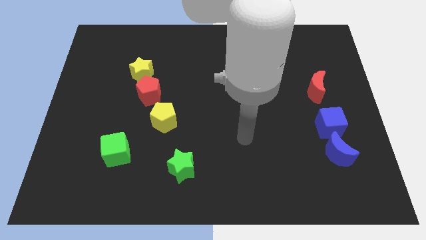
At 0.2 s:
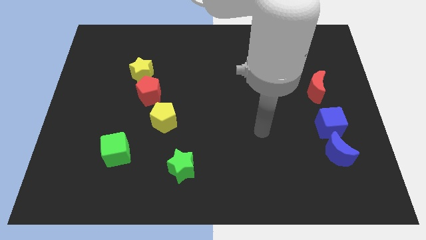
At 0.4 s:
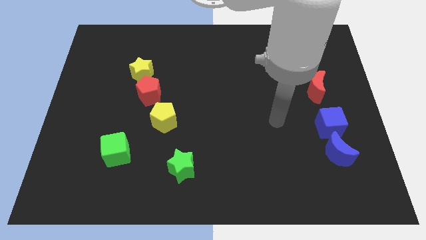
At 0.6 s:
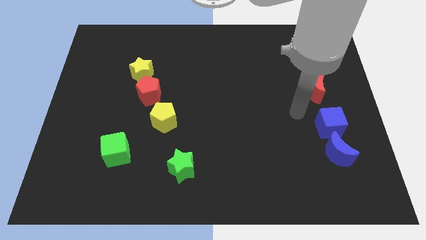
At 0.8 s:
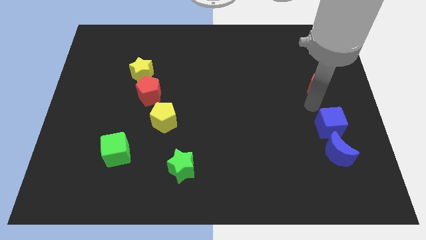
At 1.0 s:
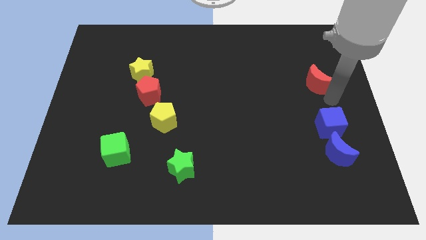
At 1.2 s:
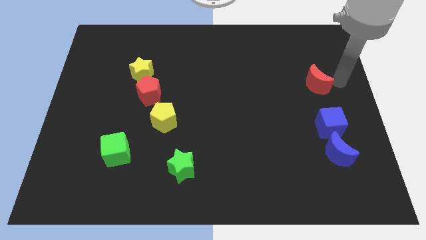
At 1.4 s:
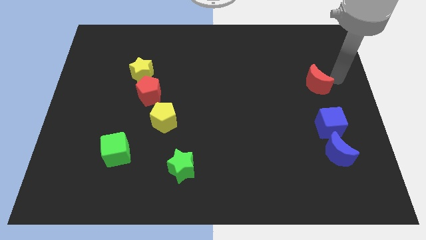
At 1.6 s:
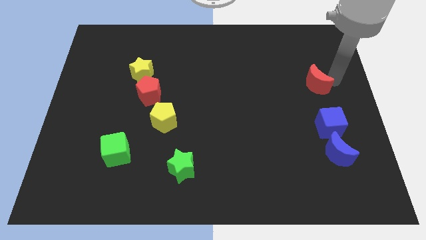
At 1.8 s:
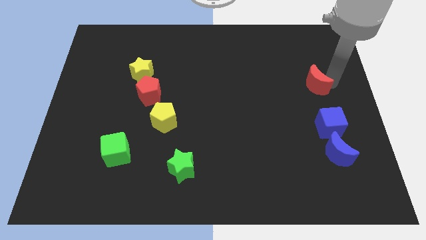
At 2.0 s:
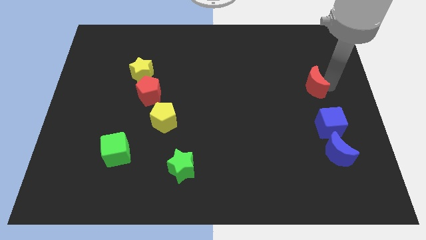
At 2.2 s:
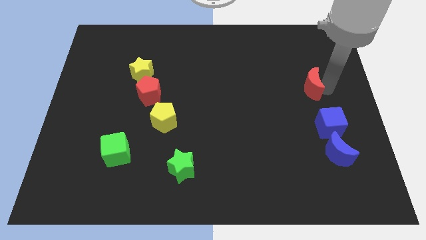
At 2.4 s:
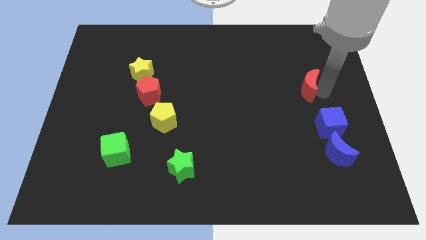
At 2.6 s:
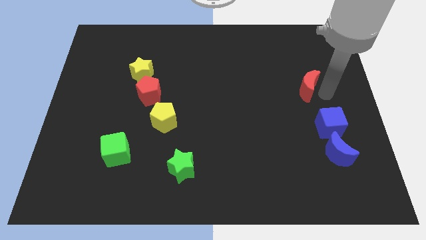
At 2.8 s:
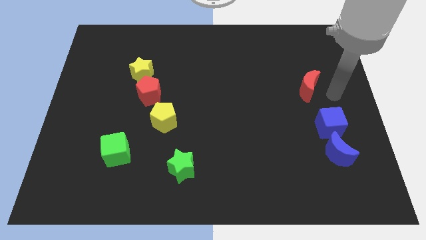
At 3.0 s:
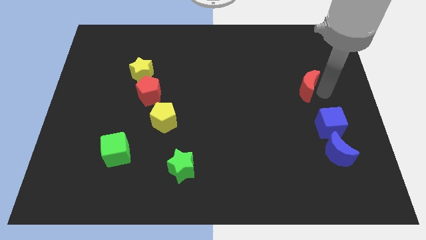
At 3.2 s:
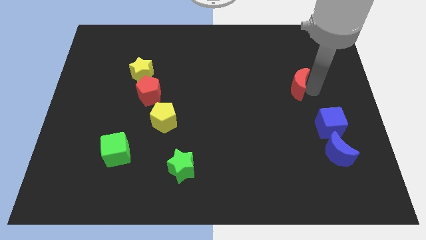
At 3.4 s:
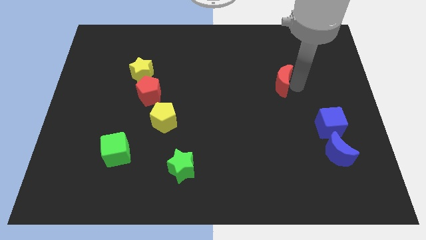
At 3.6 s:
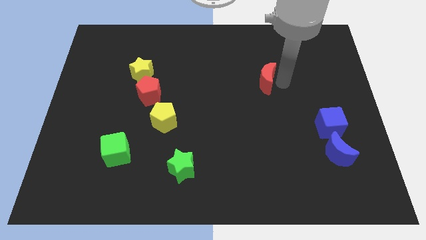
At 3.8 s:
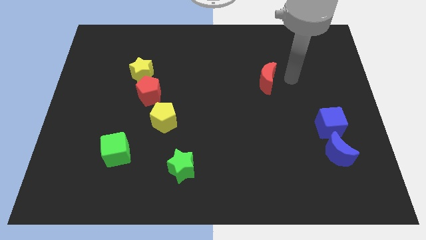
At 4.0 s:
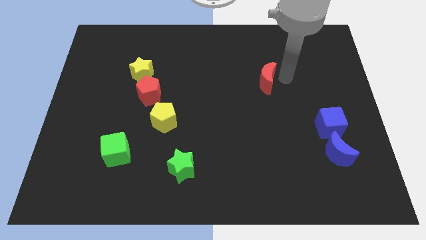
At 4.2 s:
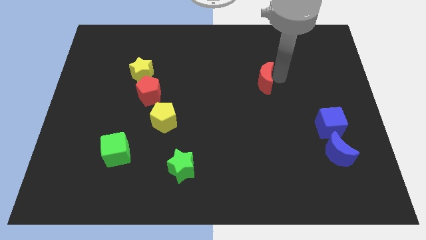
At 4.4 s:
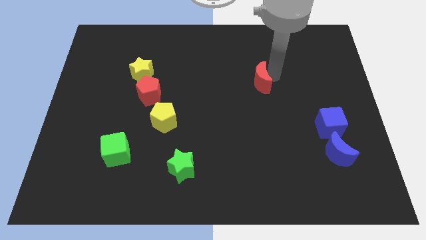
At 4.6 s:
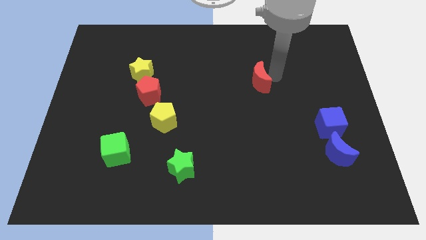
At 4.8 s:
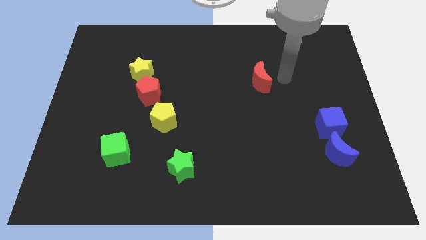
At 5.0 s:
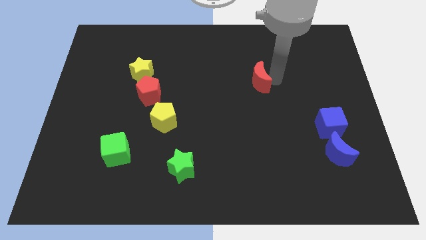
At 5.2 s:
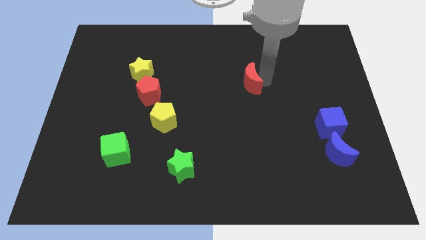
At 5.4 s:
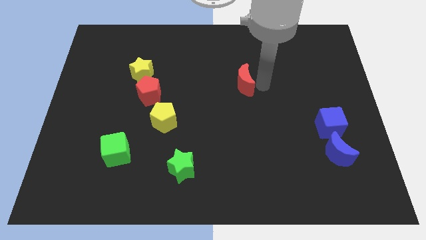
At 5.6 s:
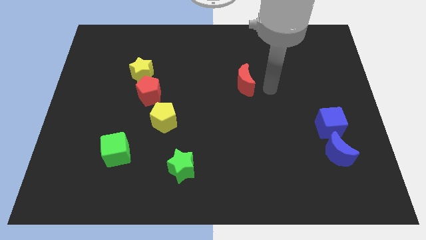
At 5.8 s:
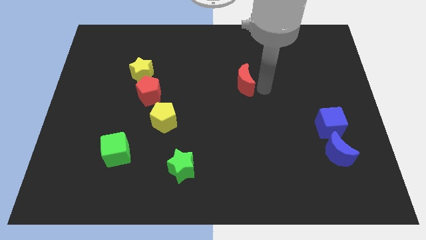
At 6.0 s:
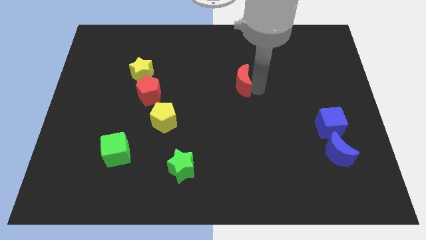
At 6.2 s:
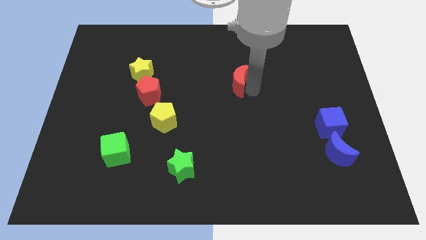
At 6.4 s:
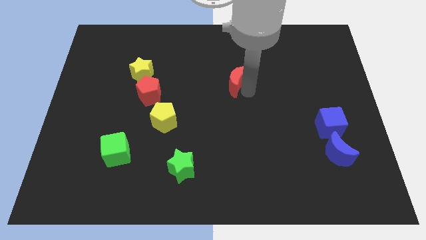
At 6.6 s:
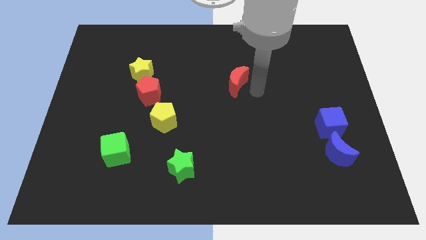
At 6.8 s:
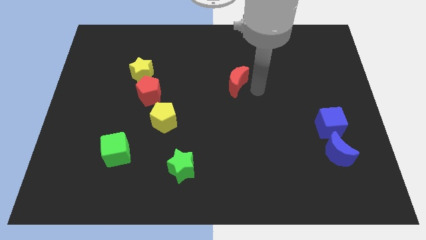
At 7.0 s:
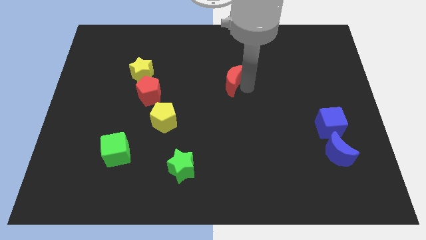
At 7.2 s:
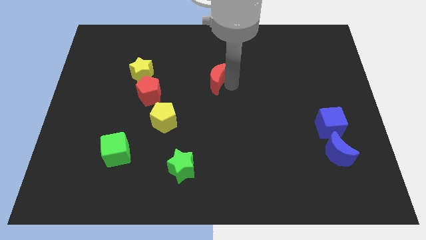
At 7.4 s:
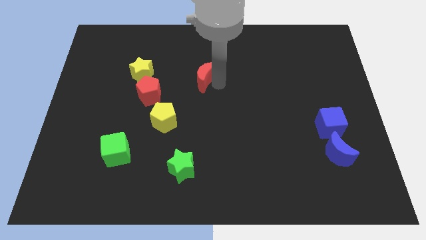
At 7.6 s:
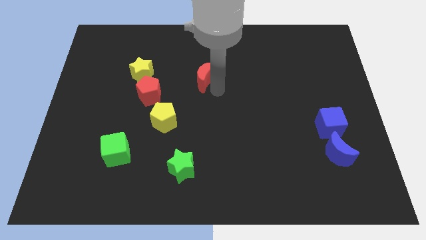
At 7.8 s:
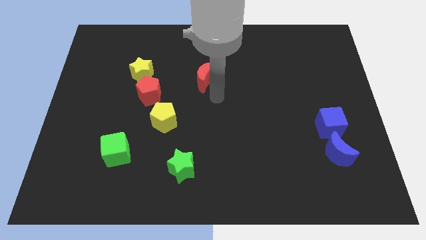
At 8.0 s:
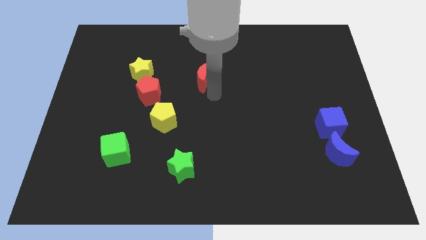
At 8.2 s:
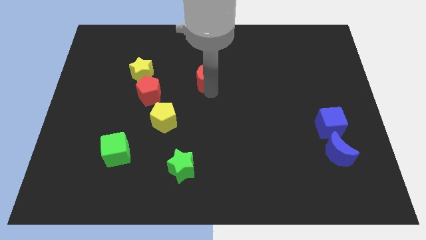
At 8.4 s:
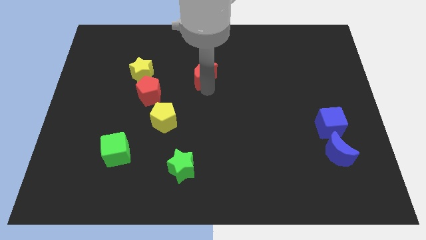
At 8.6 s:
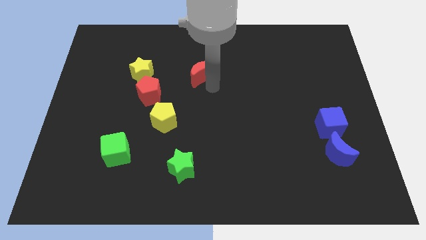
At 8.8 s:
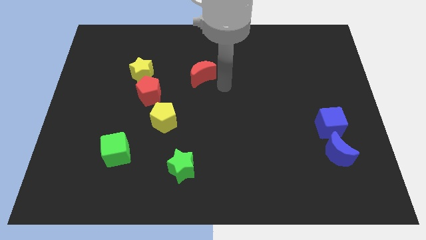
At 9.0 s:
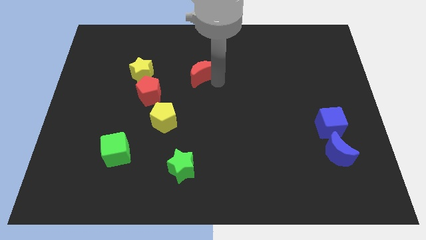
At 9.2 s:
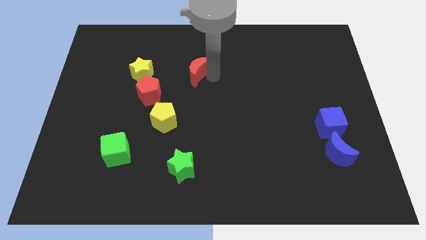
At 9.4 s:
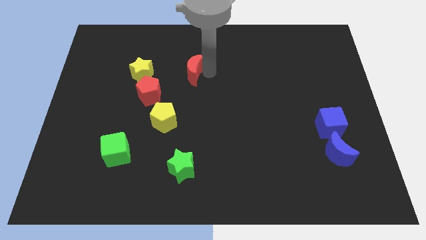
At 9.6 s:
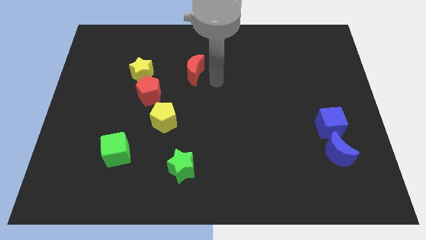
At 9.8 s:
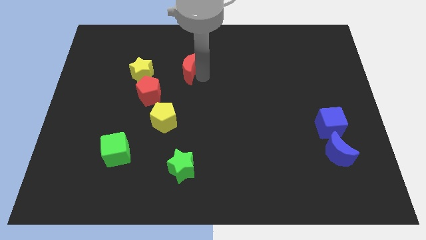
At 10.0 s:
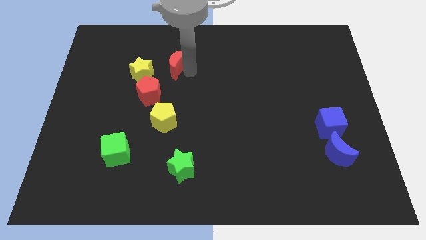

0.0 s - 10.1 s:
slide the red moon diagonally up and to the right of the yellow star

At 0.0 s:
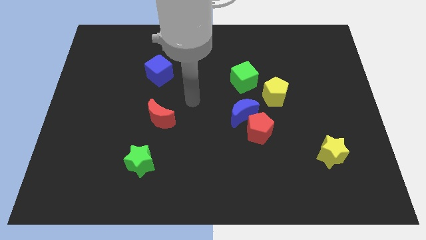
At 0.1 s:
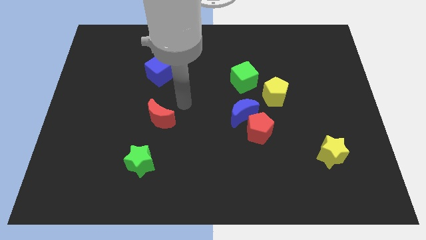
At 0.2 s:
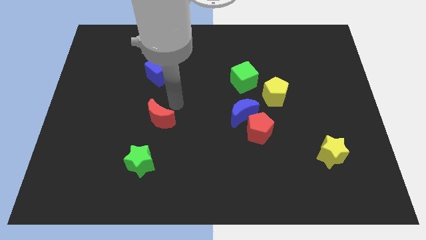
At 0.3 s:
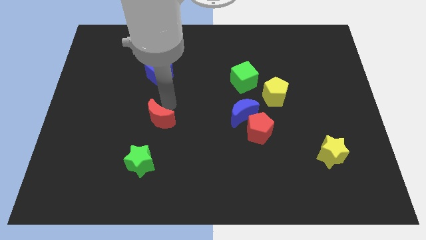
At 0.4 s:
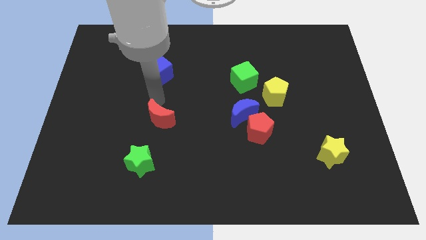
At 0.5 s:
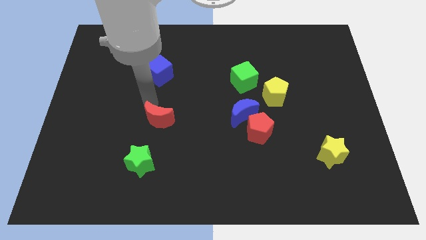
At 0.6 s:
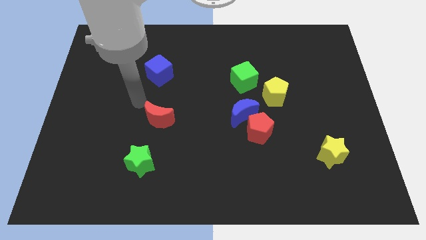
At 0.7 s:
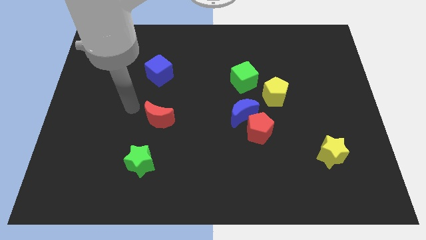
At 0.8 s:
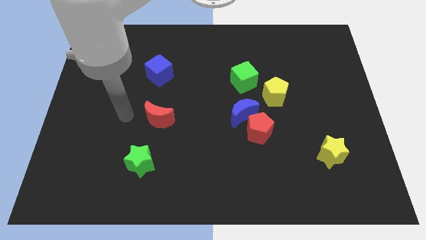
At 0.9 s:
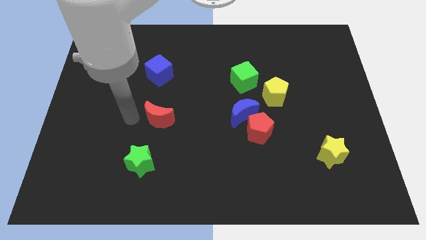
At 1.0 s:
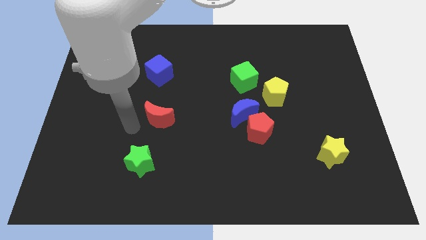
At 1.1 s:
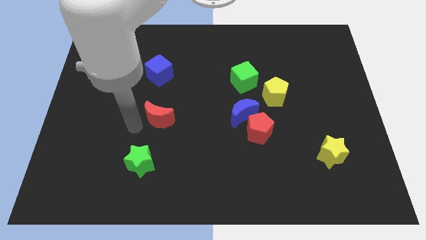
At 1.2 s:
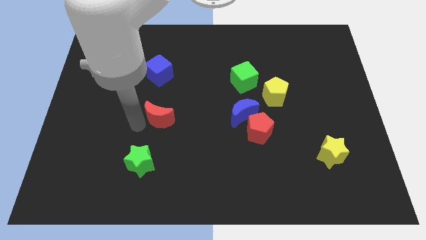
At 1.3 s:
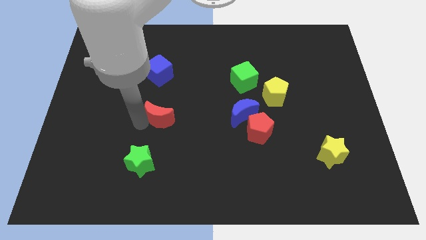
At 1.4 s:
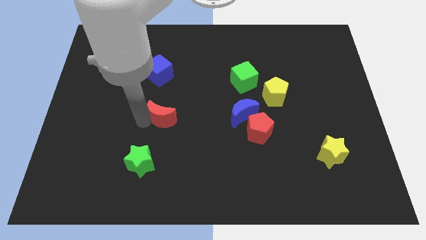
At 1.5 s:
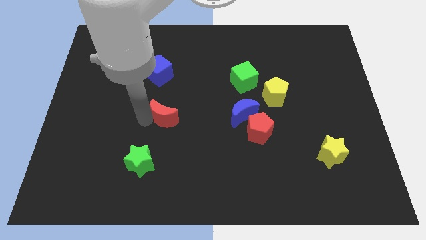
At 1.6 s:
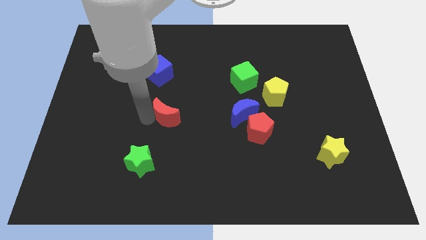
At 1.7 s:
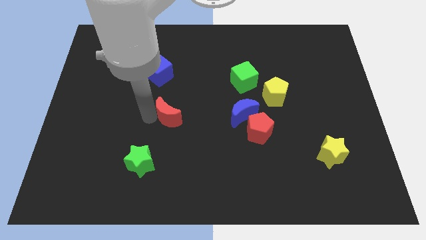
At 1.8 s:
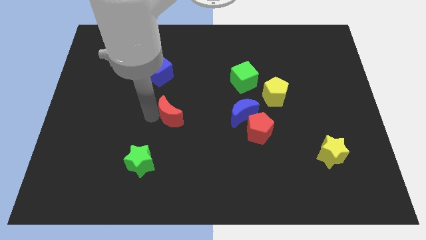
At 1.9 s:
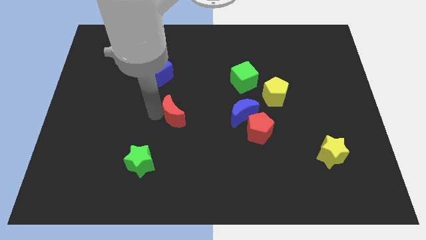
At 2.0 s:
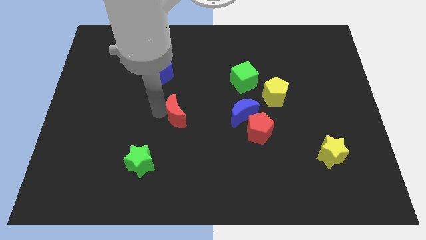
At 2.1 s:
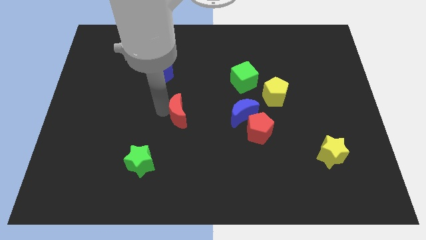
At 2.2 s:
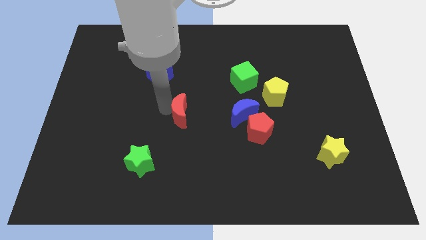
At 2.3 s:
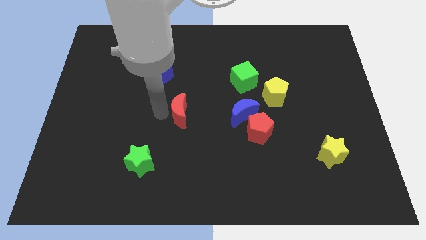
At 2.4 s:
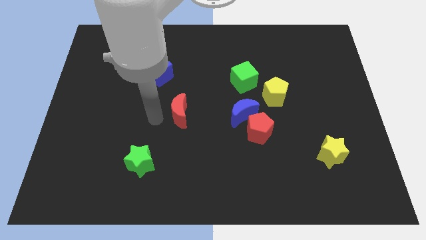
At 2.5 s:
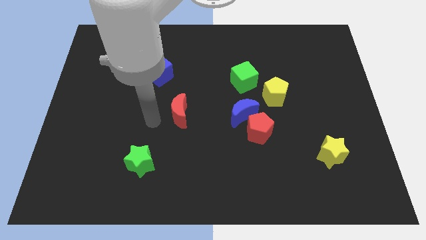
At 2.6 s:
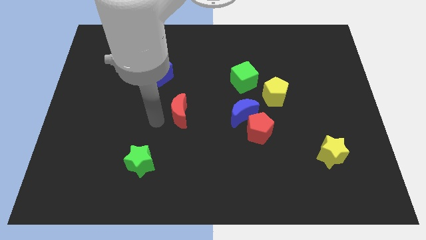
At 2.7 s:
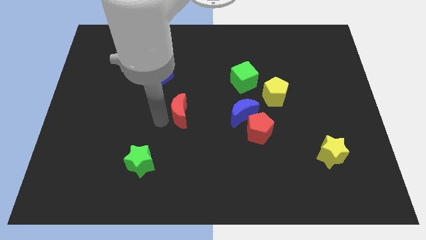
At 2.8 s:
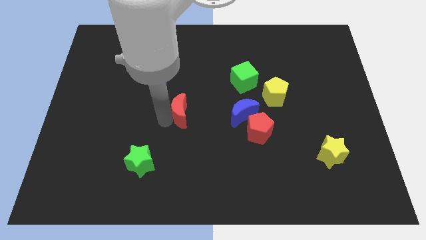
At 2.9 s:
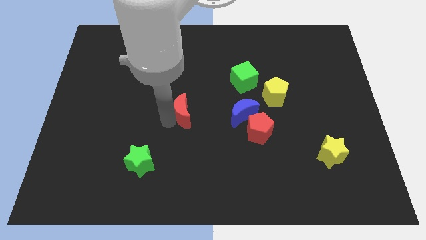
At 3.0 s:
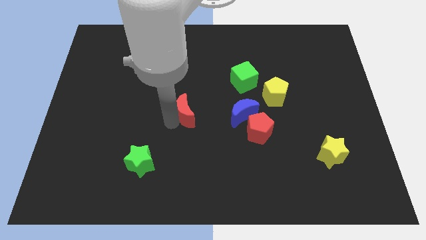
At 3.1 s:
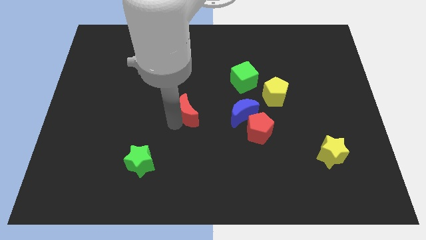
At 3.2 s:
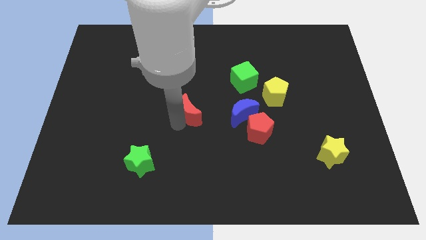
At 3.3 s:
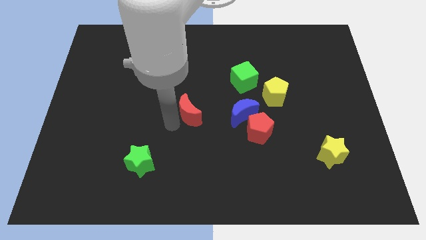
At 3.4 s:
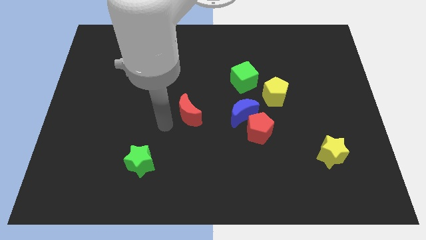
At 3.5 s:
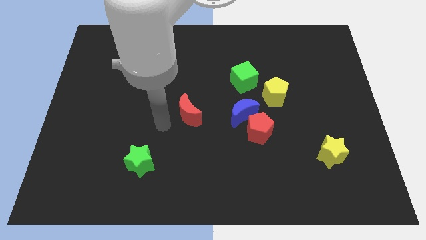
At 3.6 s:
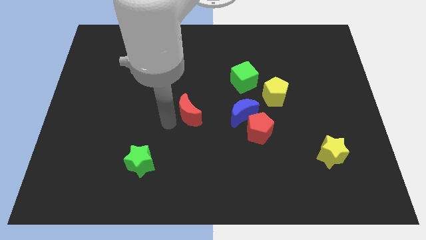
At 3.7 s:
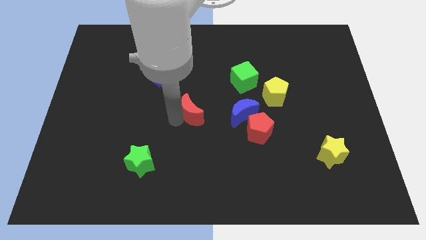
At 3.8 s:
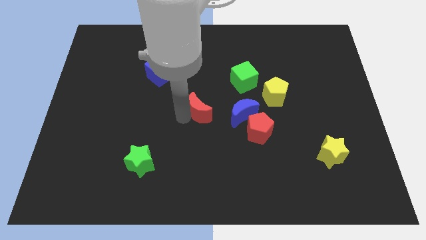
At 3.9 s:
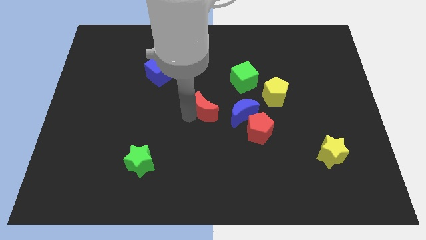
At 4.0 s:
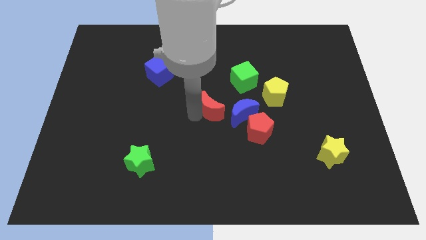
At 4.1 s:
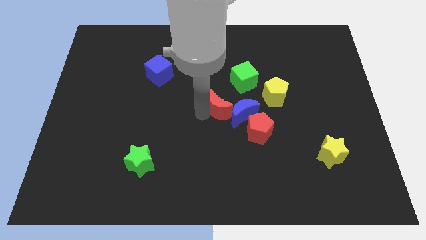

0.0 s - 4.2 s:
put the red moon to the left of the yellow pentagon
